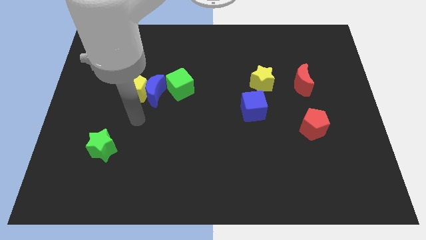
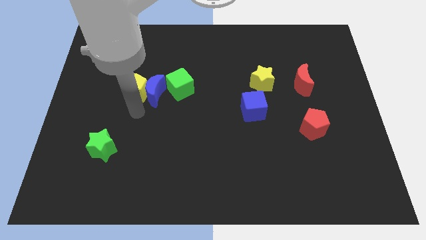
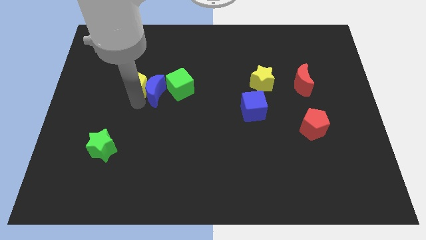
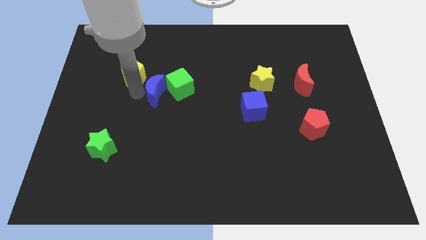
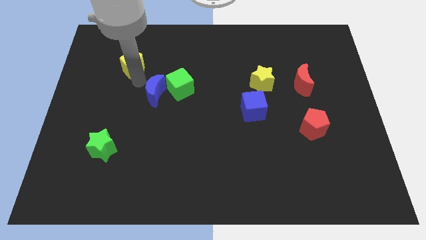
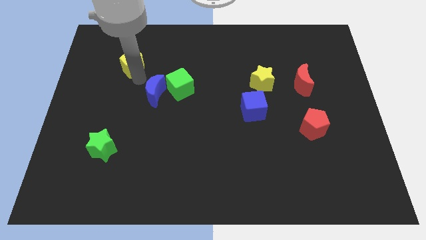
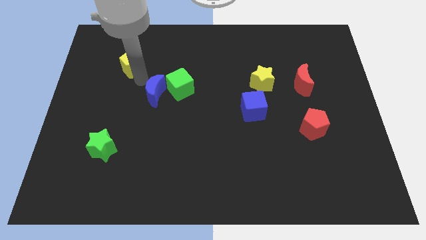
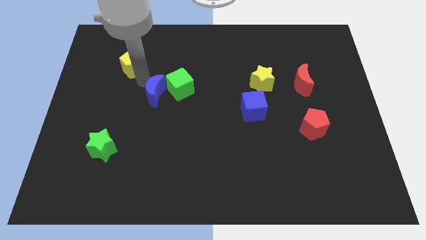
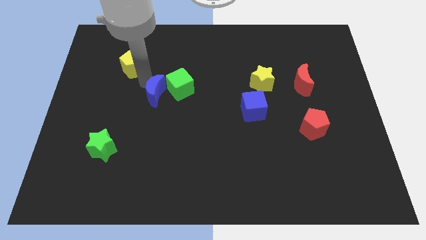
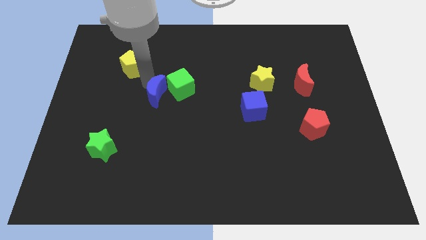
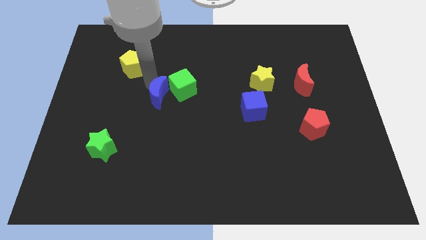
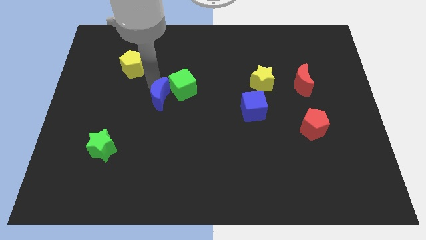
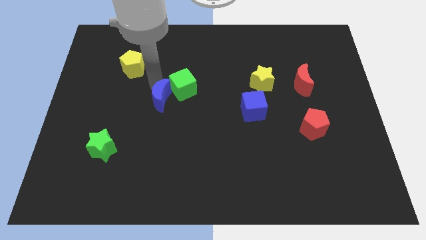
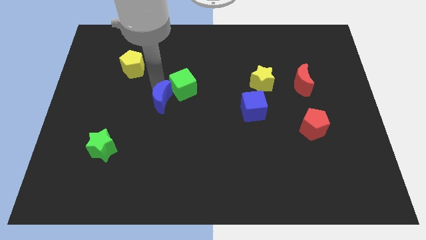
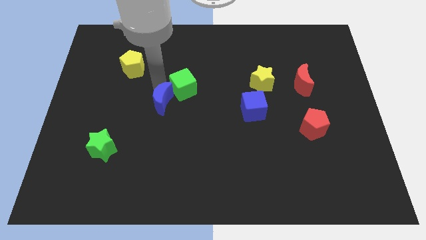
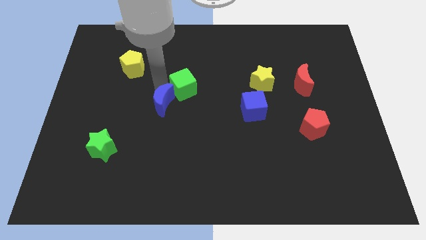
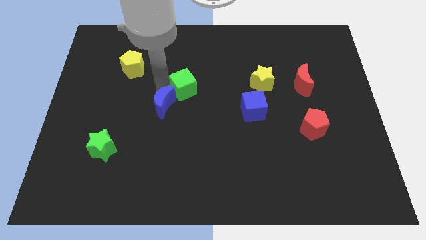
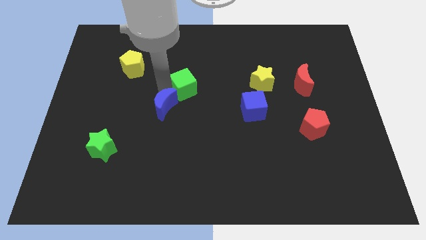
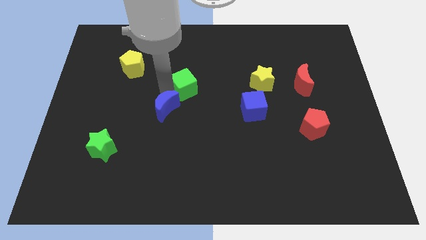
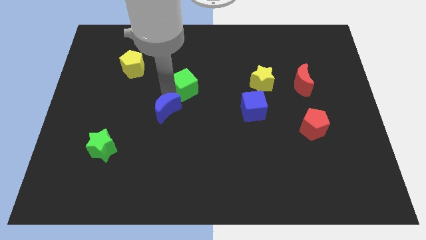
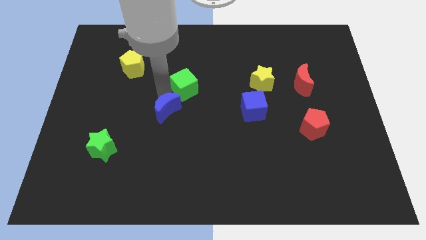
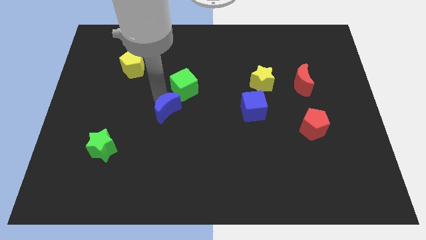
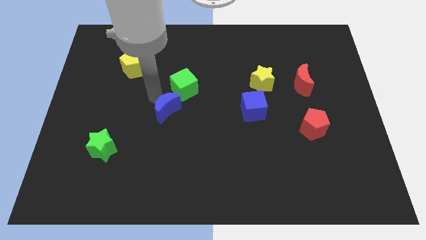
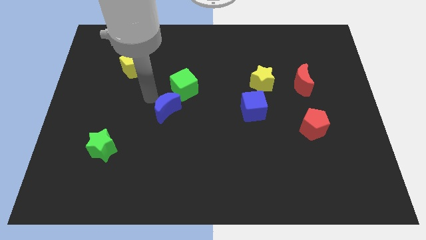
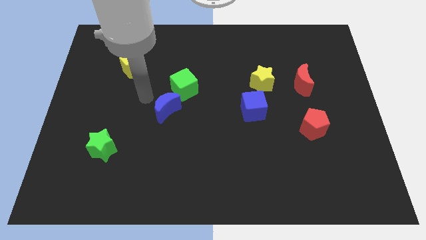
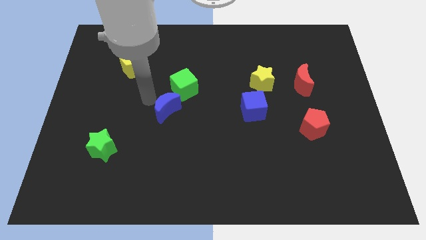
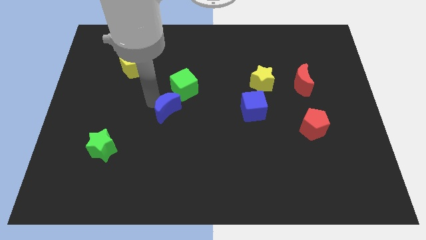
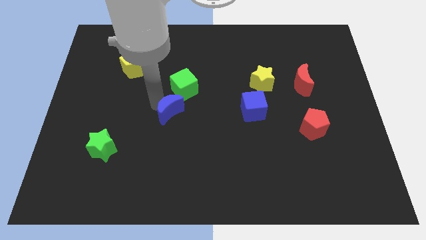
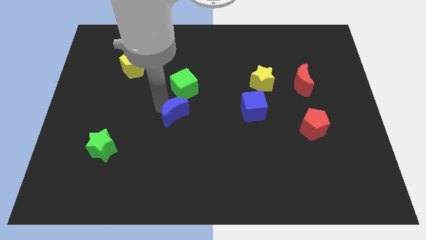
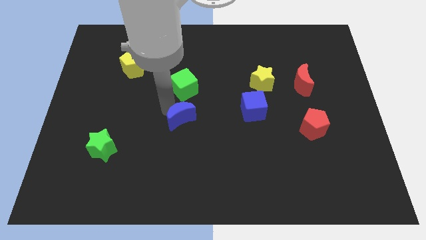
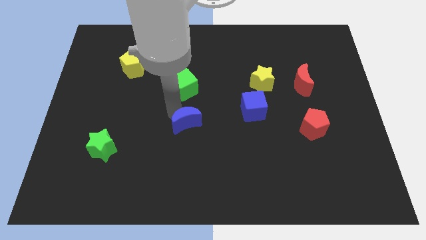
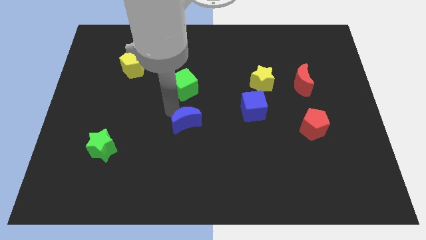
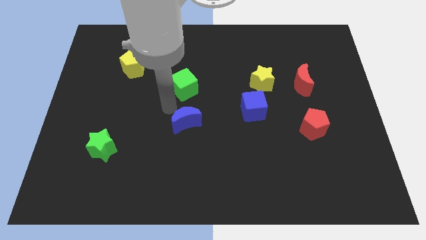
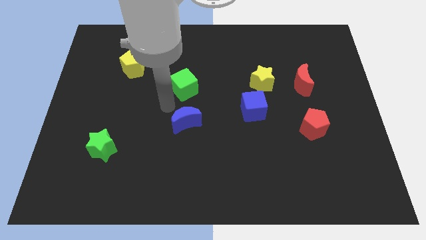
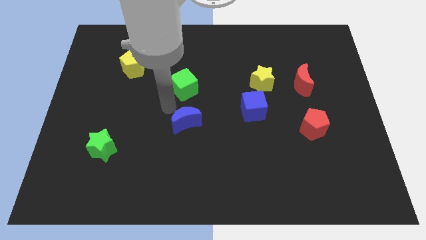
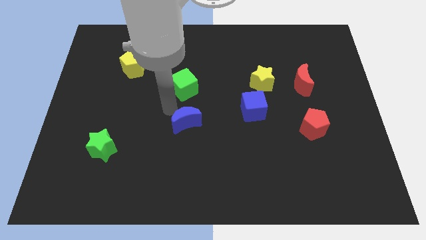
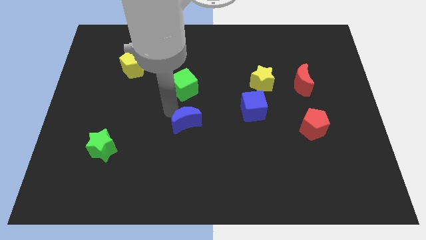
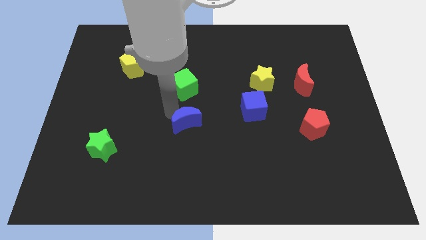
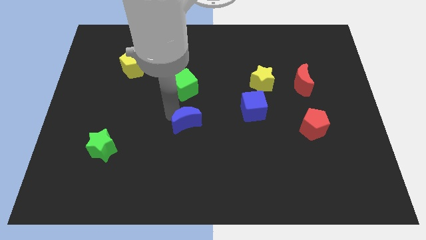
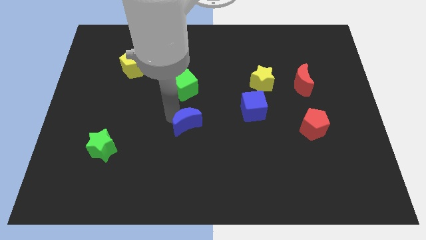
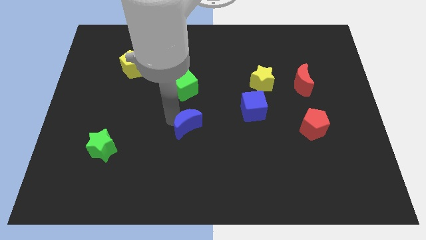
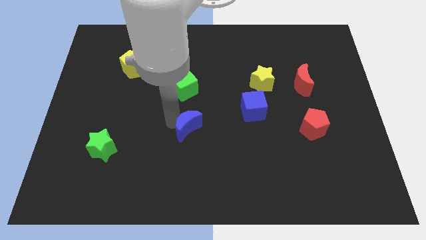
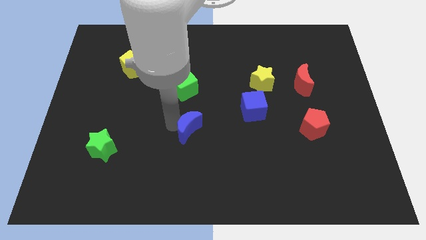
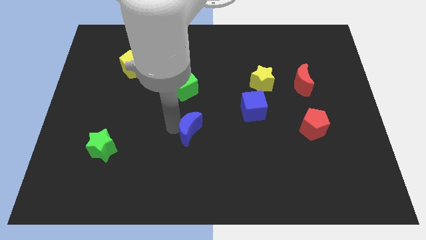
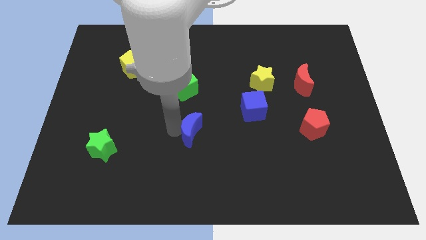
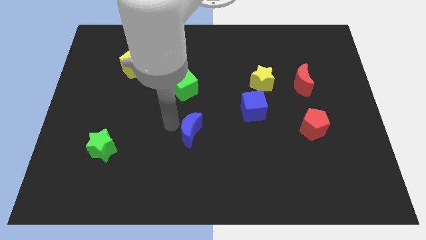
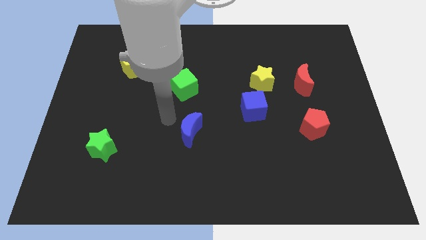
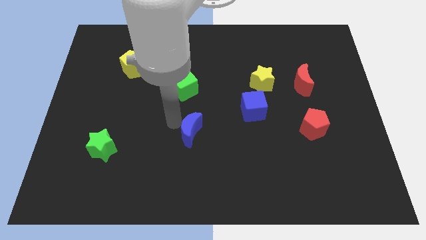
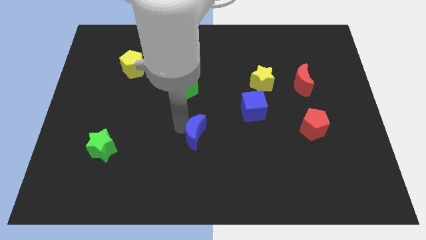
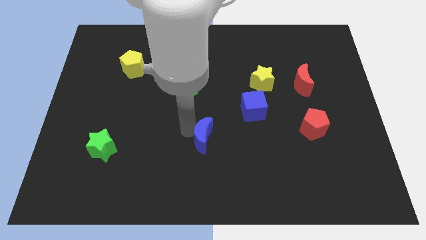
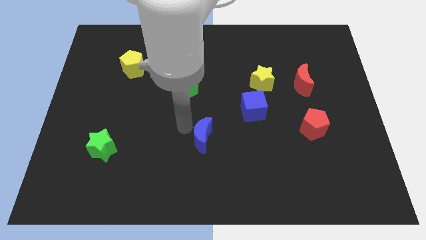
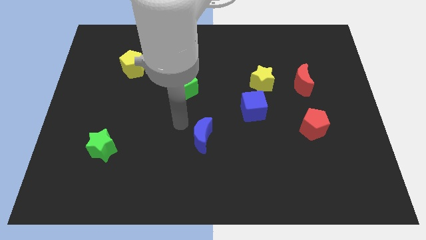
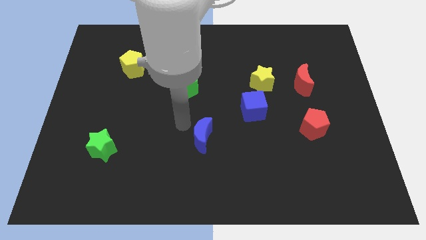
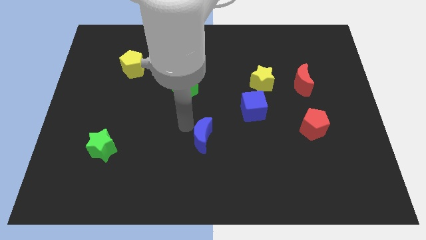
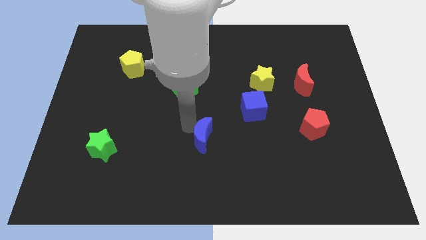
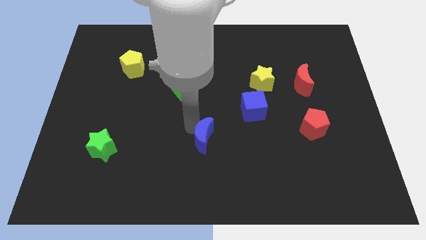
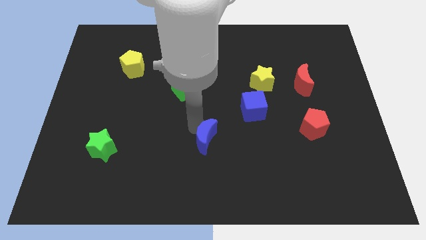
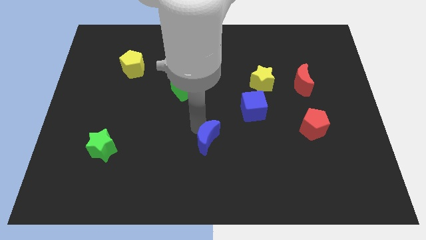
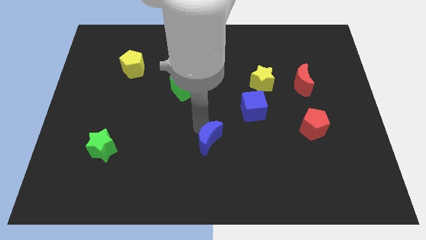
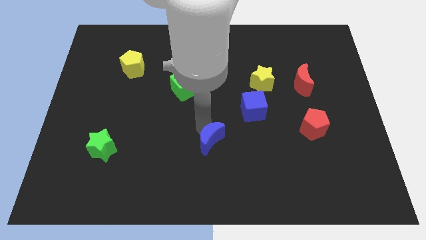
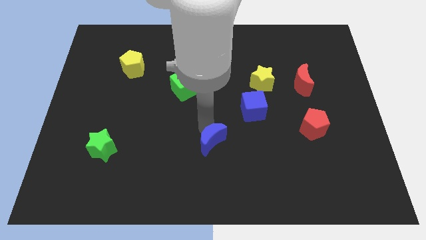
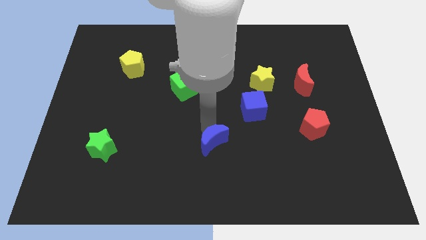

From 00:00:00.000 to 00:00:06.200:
push the blue moon downwards and then to the right

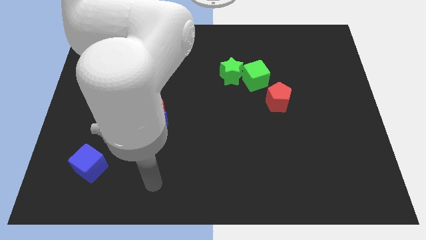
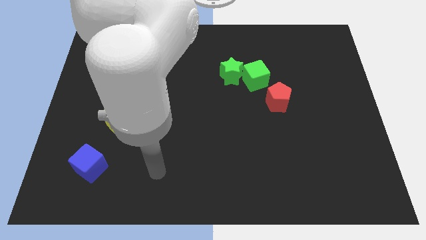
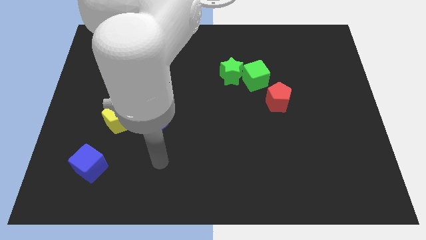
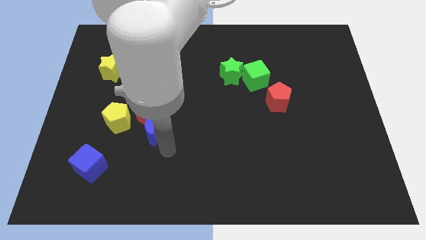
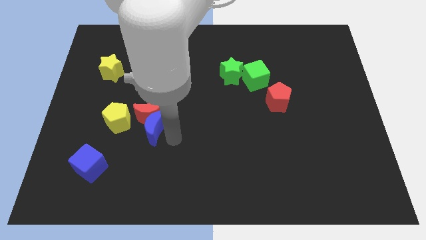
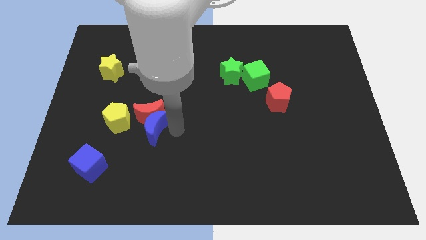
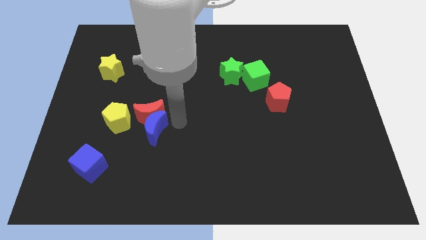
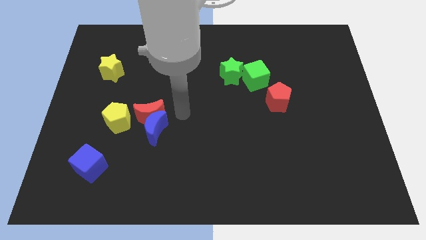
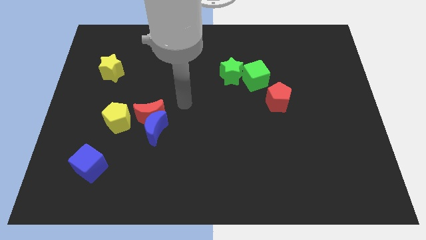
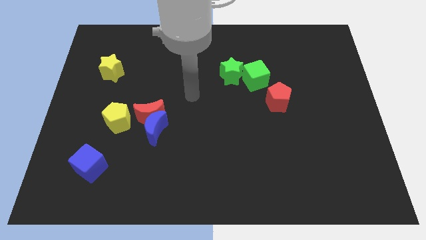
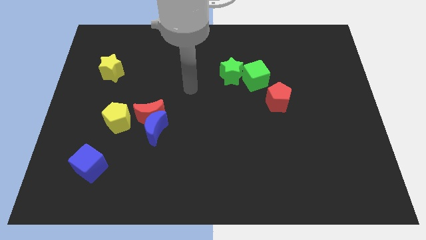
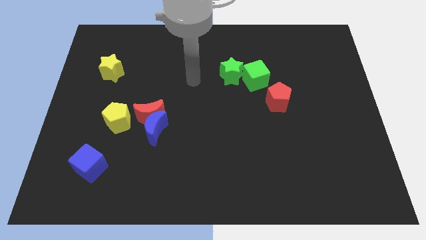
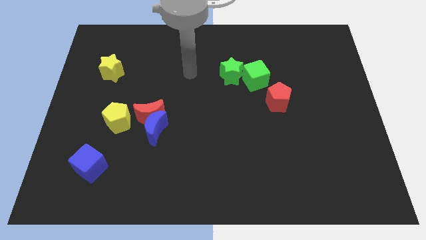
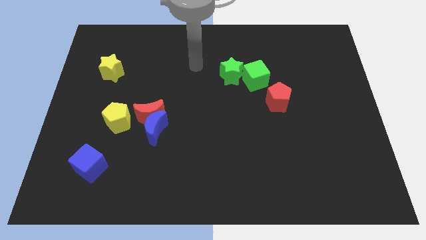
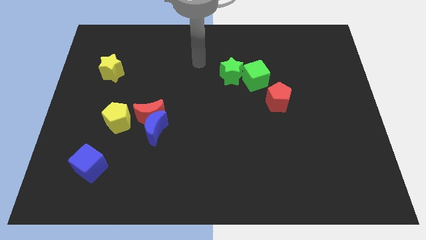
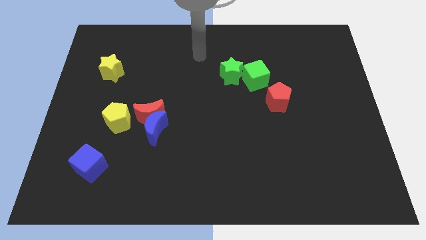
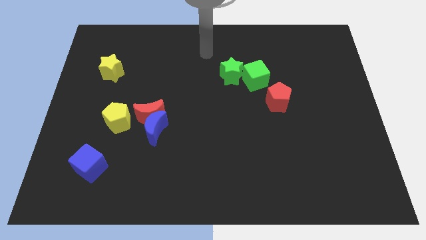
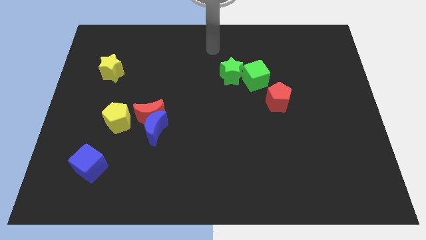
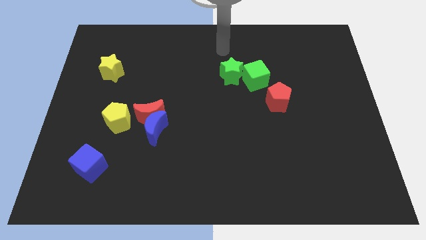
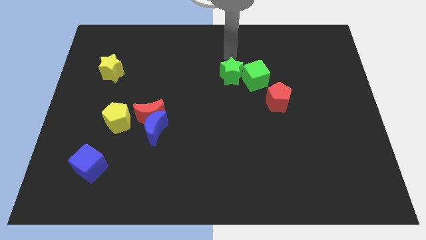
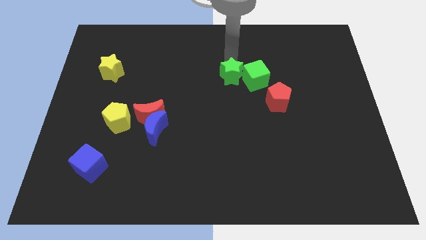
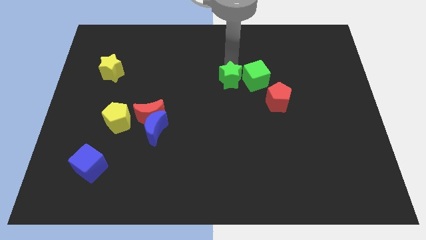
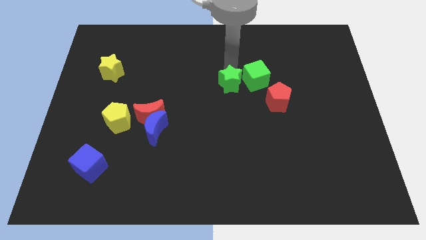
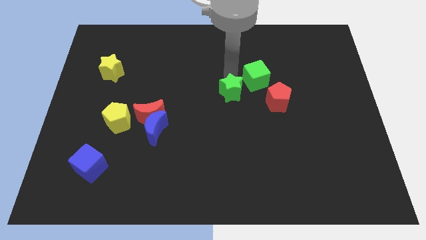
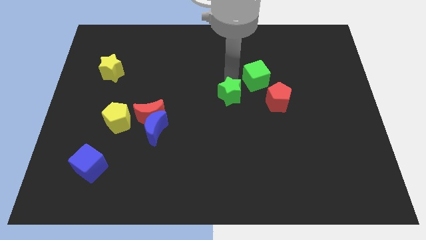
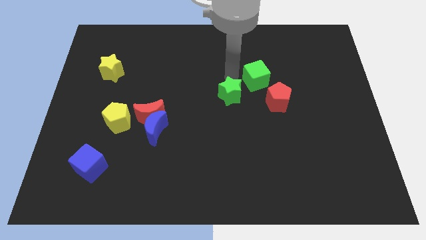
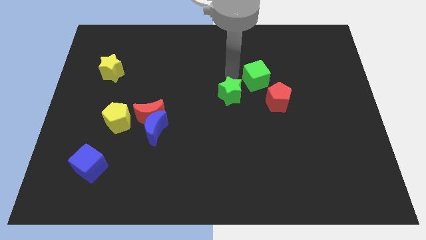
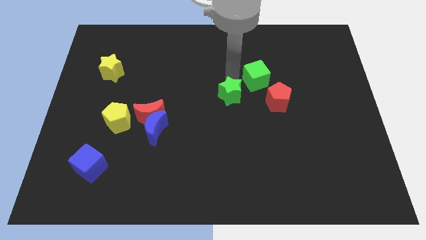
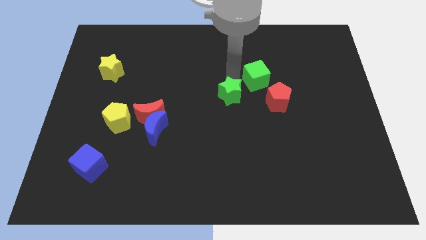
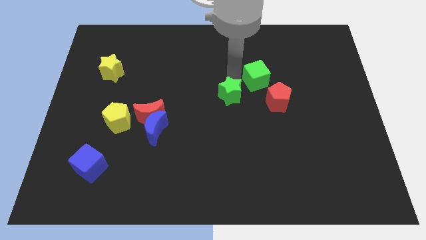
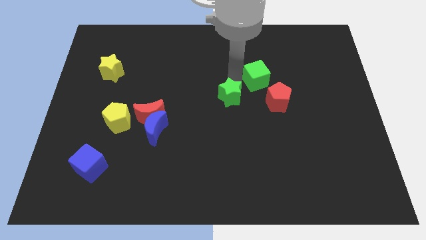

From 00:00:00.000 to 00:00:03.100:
slide the green star down a little bit
